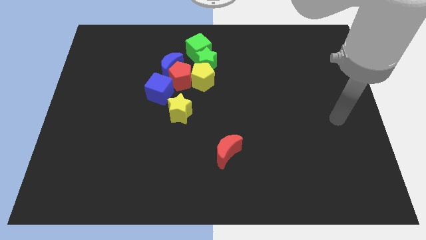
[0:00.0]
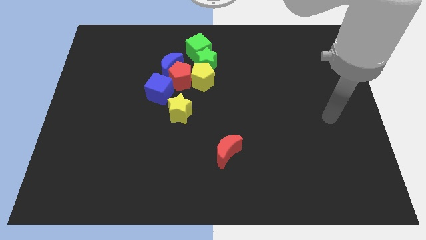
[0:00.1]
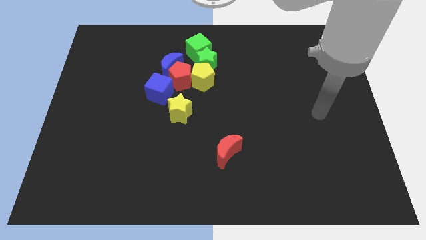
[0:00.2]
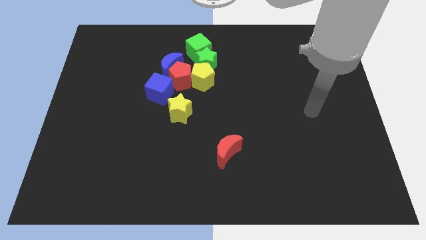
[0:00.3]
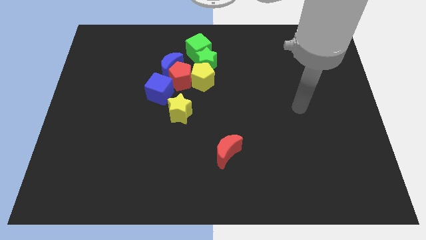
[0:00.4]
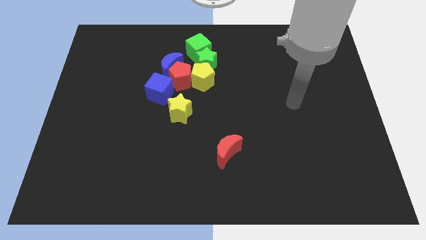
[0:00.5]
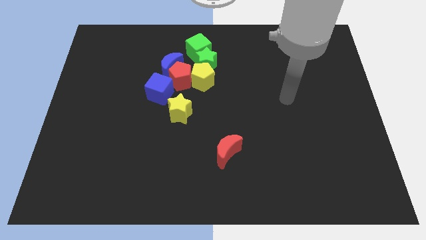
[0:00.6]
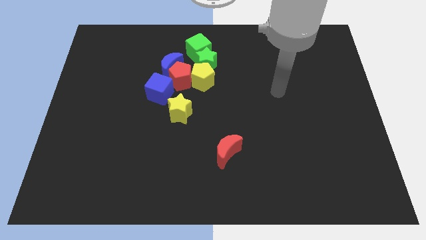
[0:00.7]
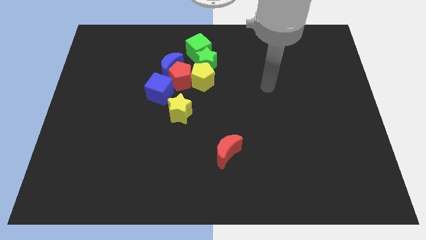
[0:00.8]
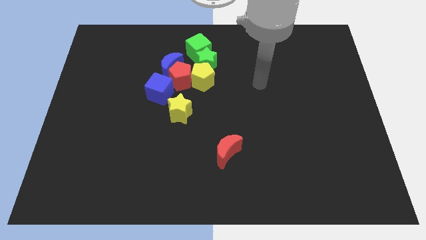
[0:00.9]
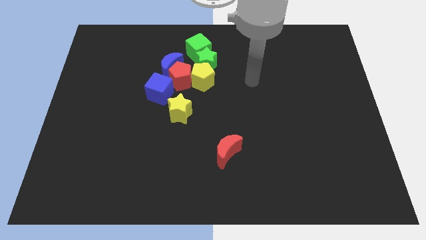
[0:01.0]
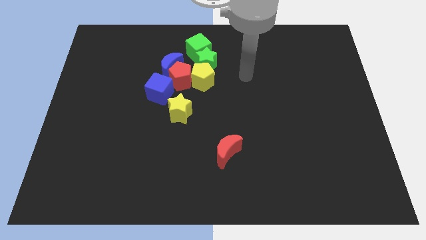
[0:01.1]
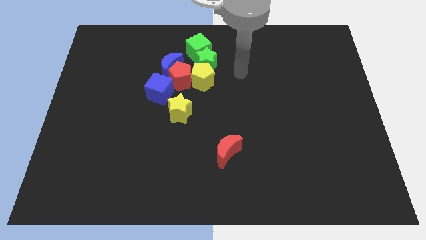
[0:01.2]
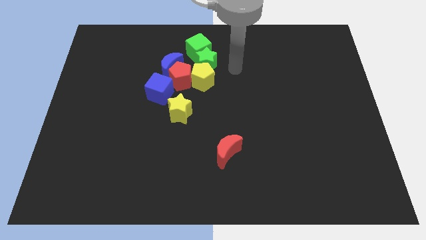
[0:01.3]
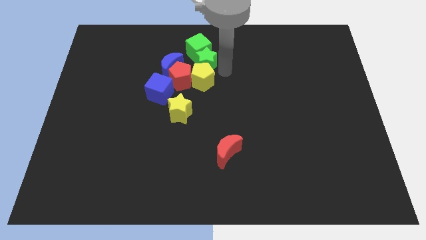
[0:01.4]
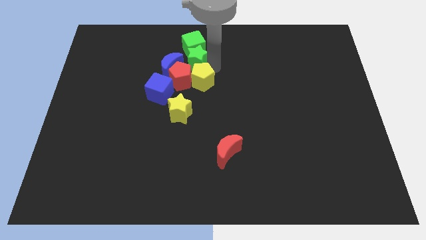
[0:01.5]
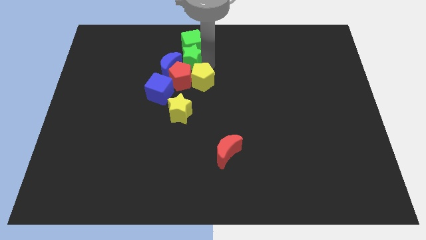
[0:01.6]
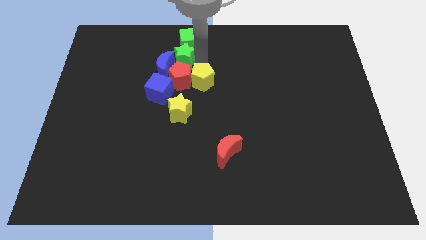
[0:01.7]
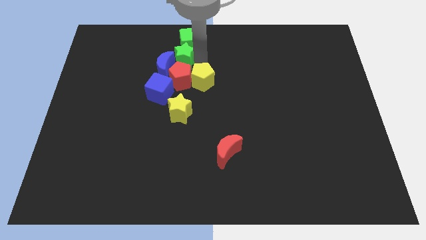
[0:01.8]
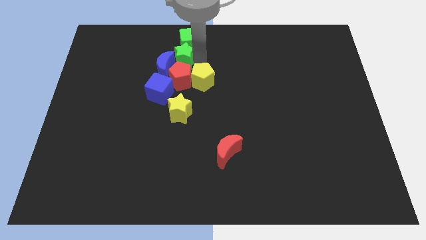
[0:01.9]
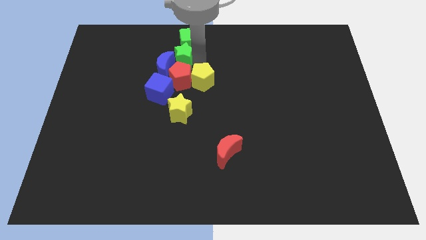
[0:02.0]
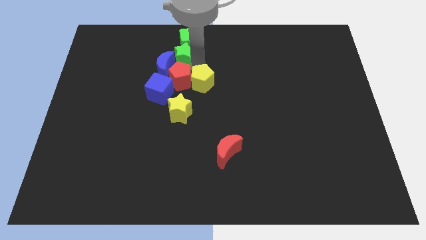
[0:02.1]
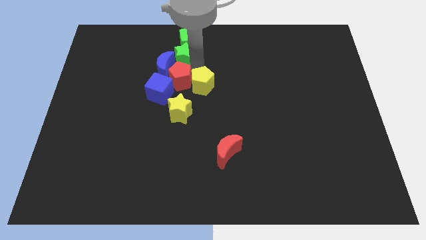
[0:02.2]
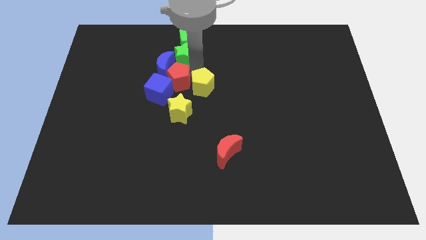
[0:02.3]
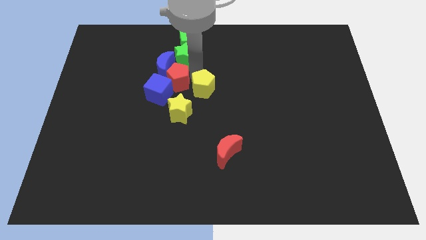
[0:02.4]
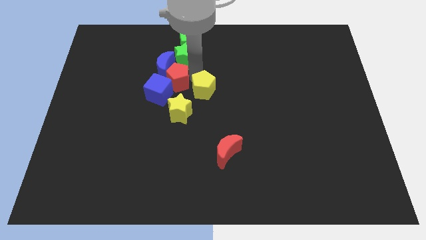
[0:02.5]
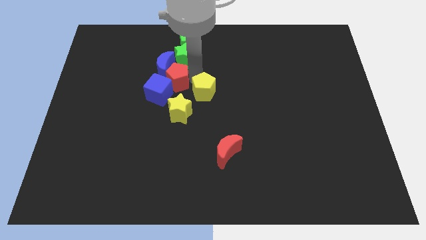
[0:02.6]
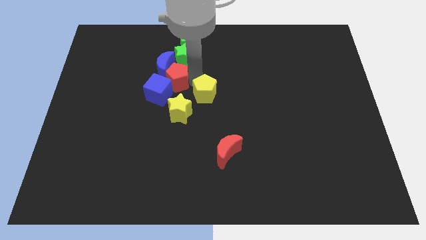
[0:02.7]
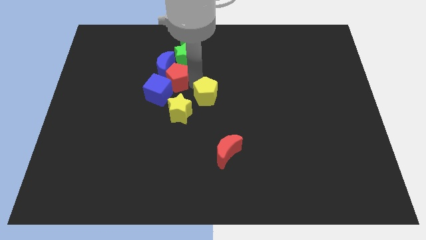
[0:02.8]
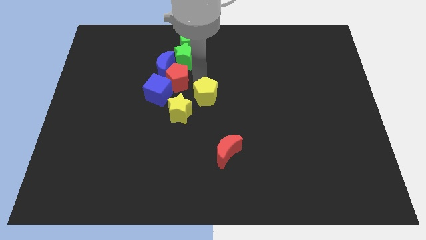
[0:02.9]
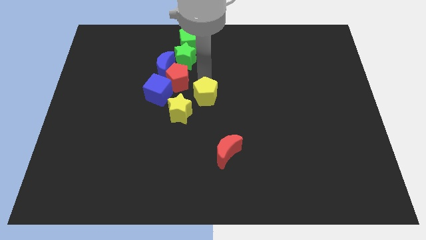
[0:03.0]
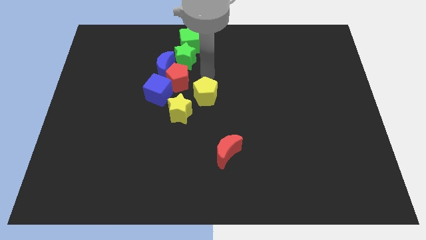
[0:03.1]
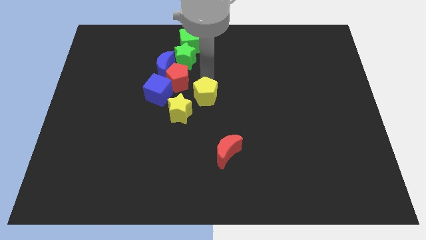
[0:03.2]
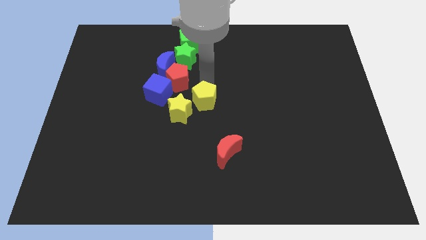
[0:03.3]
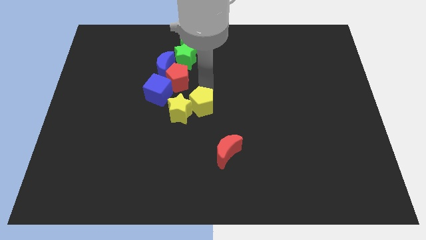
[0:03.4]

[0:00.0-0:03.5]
push the yellow pentagon somewhat down

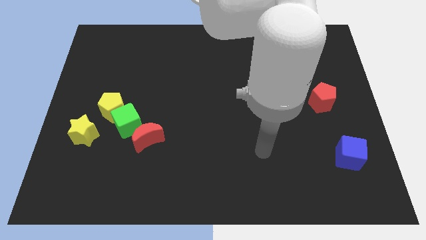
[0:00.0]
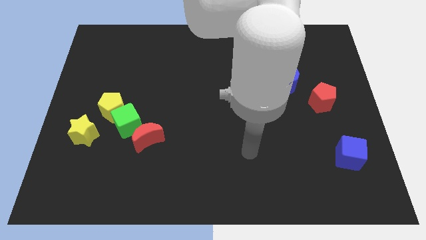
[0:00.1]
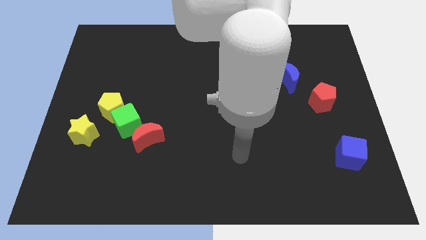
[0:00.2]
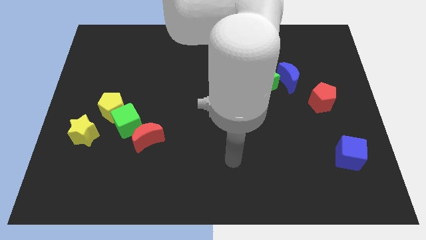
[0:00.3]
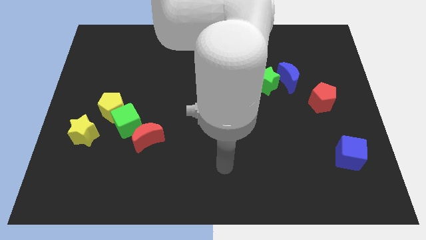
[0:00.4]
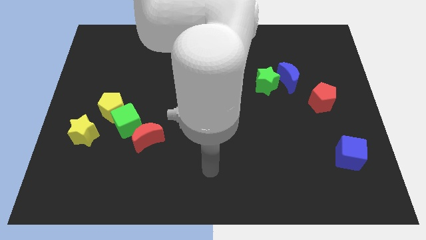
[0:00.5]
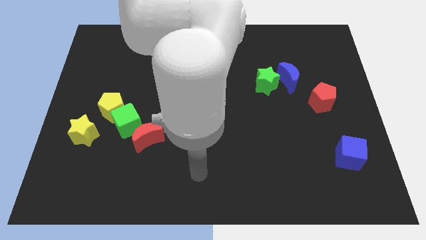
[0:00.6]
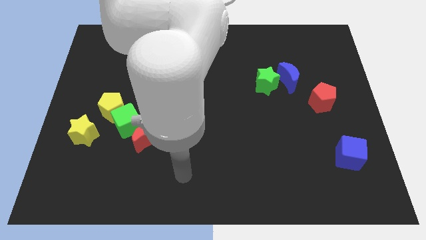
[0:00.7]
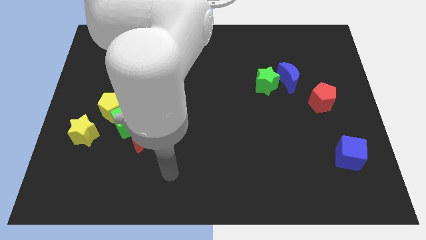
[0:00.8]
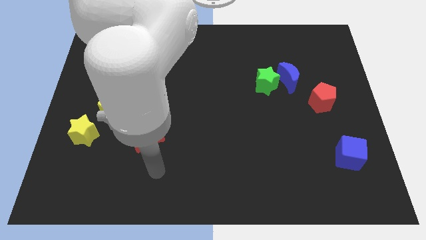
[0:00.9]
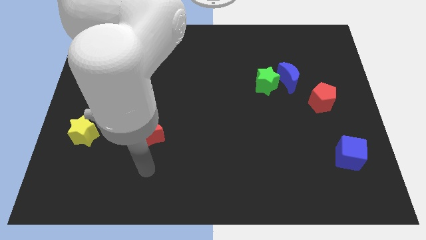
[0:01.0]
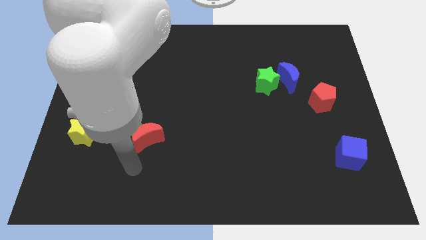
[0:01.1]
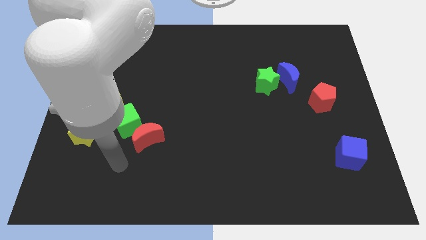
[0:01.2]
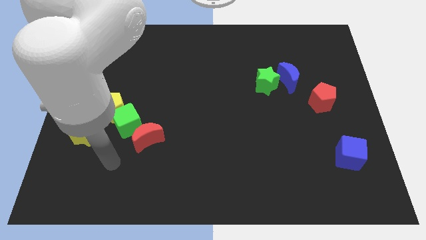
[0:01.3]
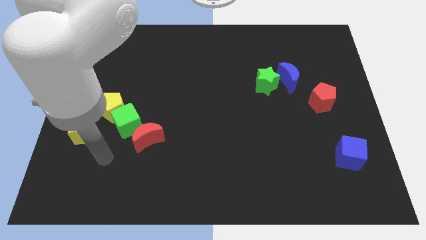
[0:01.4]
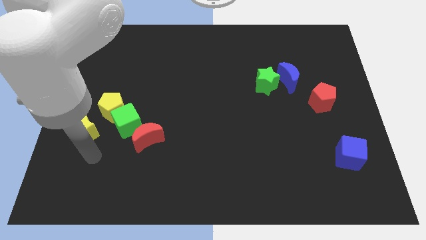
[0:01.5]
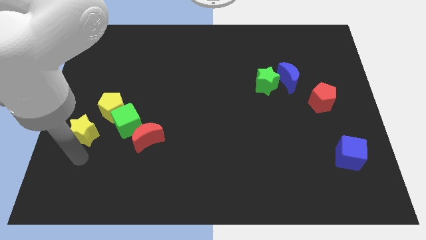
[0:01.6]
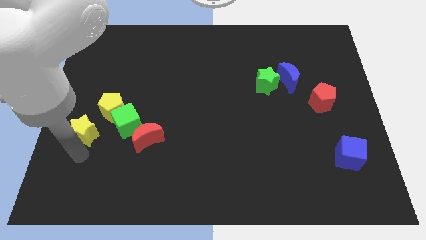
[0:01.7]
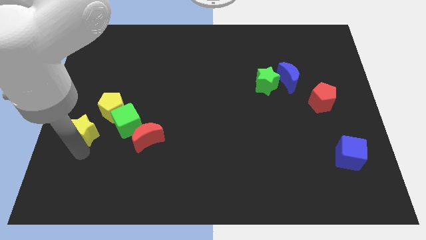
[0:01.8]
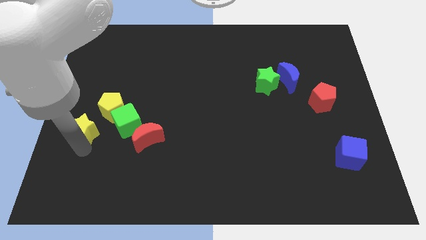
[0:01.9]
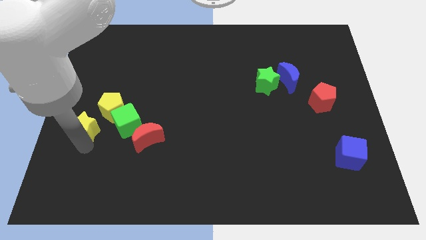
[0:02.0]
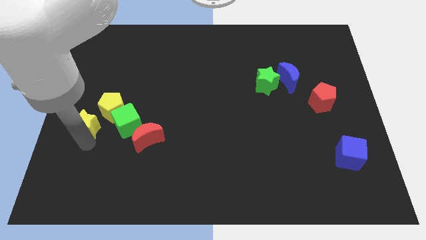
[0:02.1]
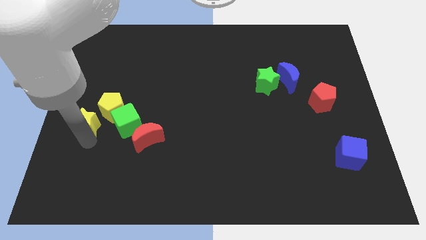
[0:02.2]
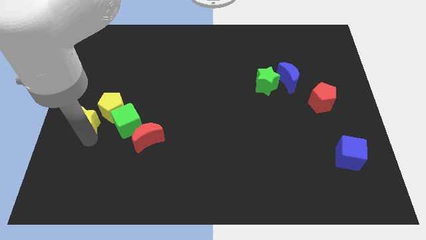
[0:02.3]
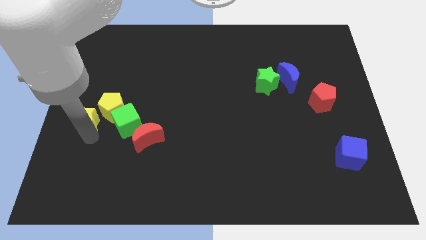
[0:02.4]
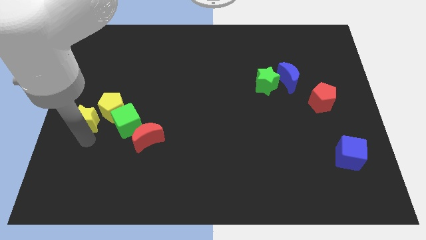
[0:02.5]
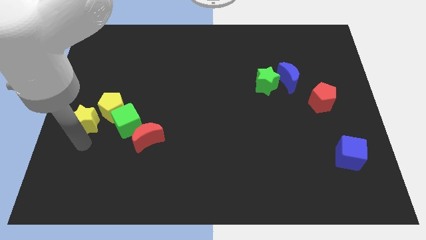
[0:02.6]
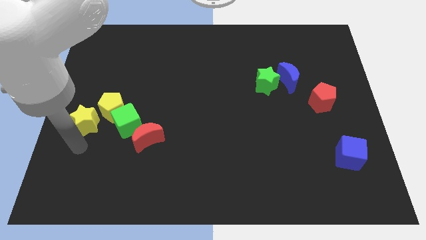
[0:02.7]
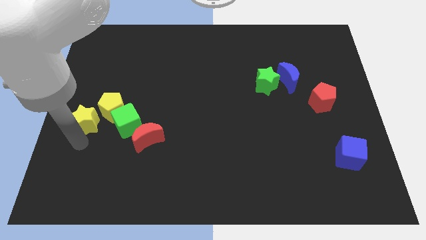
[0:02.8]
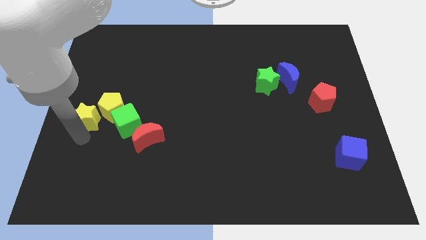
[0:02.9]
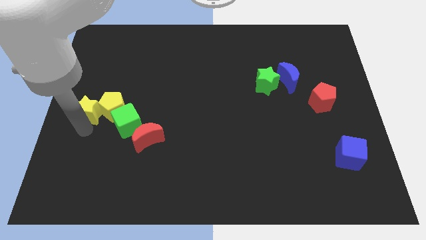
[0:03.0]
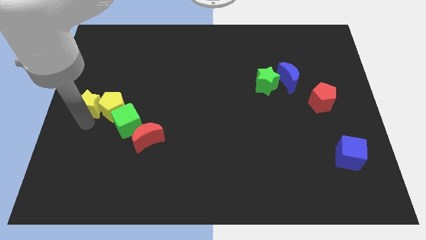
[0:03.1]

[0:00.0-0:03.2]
slide the yellow star upwards a little bit

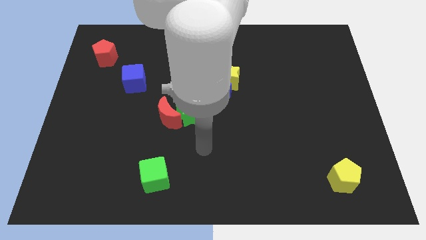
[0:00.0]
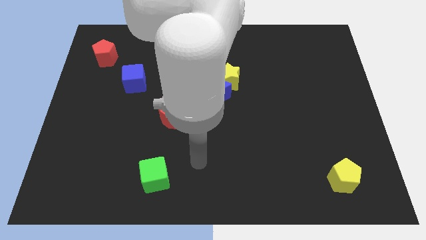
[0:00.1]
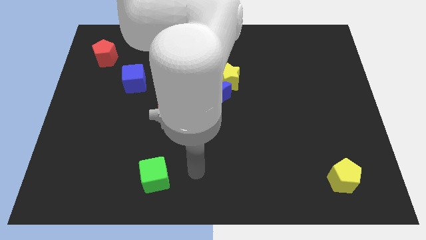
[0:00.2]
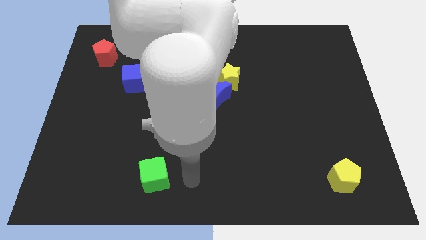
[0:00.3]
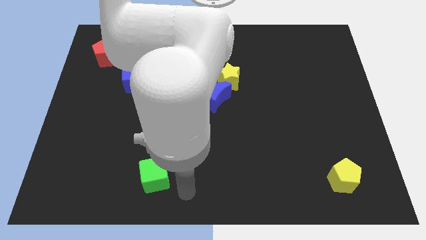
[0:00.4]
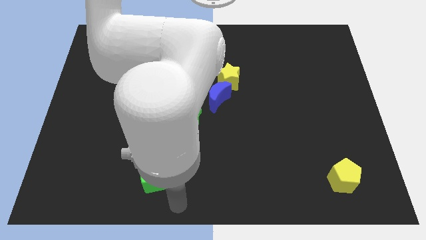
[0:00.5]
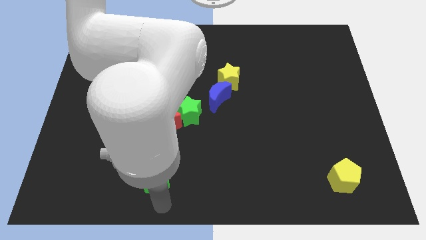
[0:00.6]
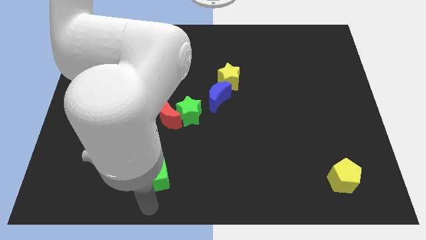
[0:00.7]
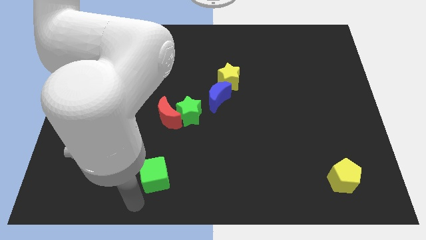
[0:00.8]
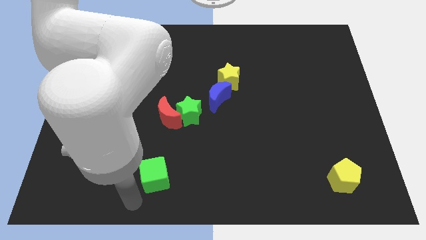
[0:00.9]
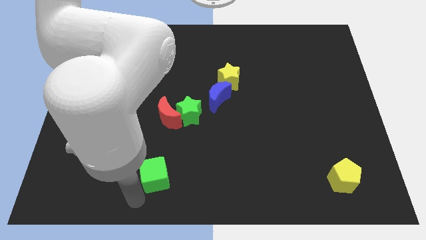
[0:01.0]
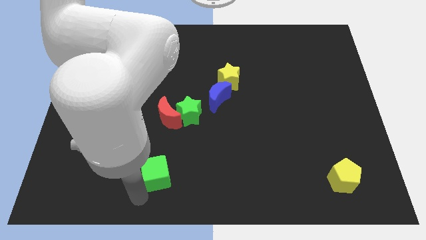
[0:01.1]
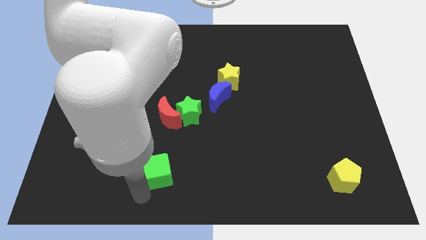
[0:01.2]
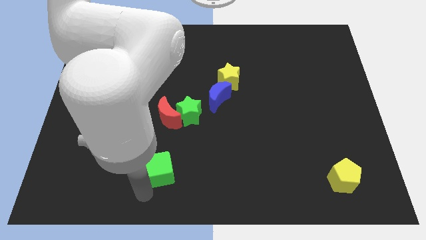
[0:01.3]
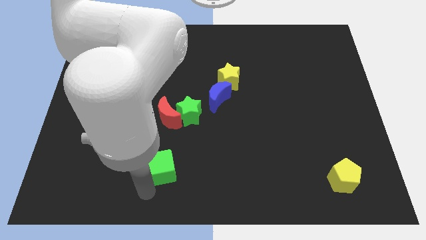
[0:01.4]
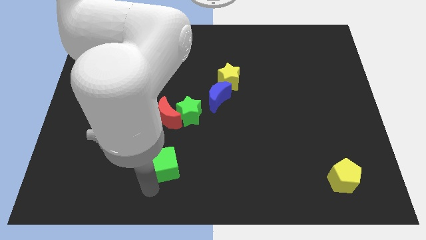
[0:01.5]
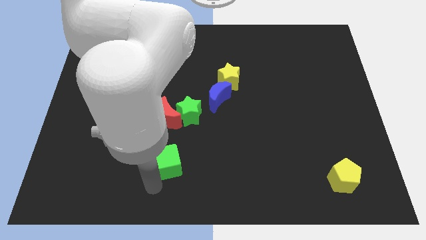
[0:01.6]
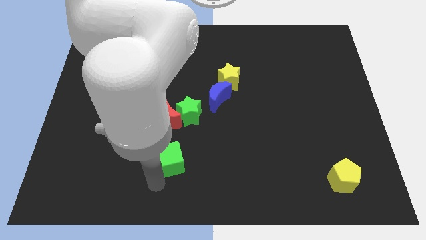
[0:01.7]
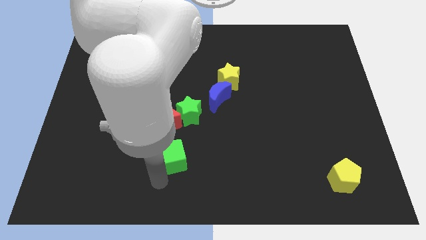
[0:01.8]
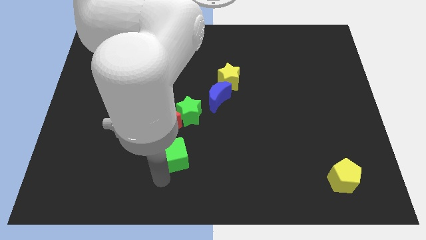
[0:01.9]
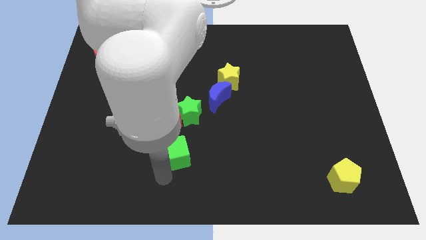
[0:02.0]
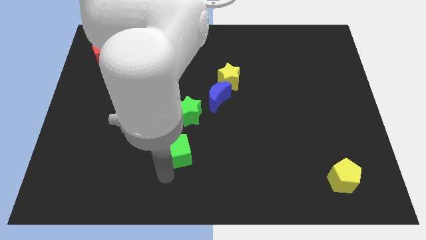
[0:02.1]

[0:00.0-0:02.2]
move the green cube diagonally up and right a bit
